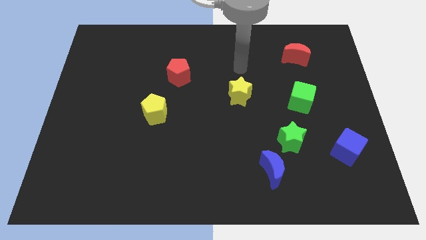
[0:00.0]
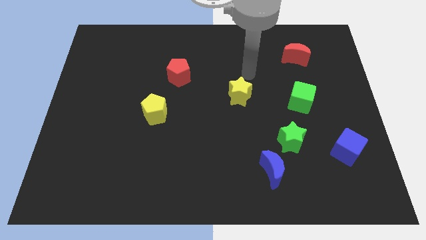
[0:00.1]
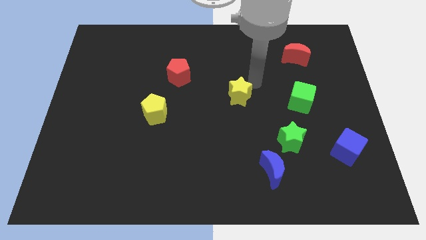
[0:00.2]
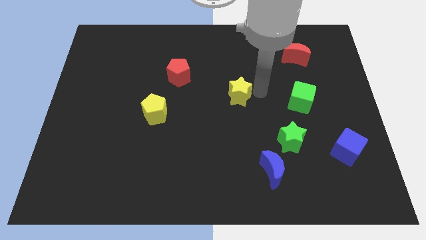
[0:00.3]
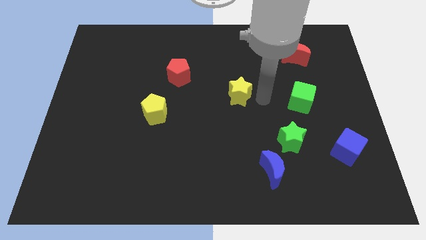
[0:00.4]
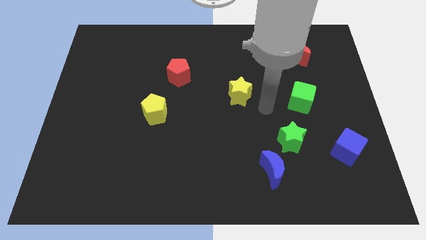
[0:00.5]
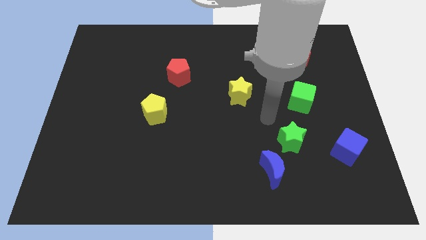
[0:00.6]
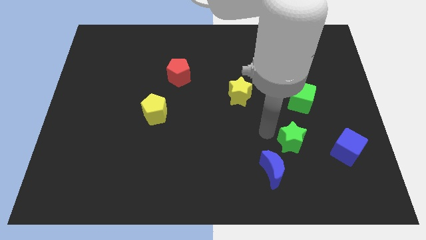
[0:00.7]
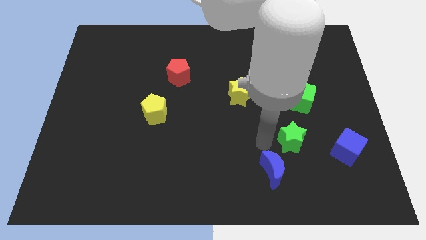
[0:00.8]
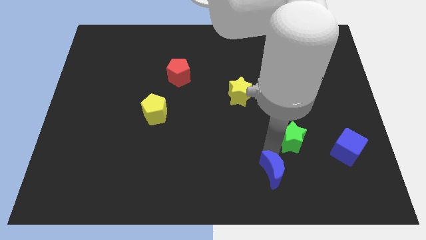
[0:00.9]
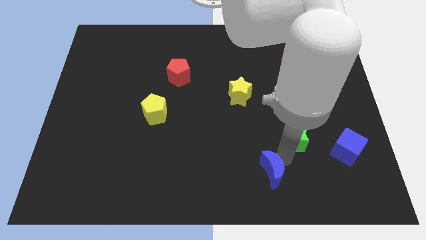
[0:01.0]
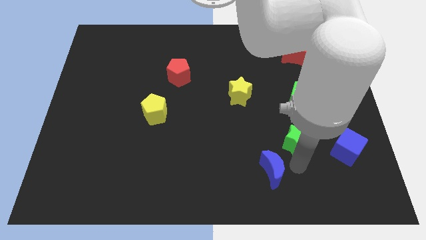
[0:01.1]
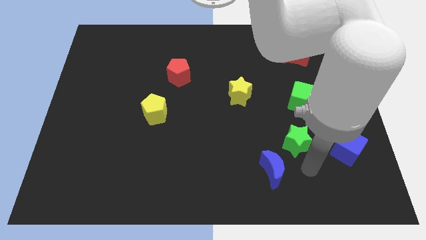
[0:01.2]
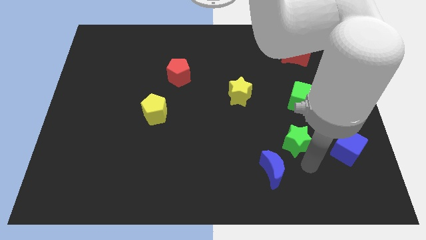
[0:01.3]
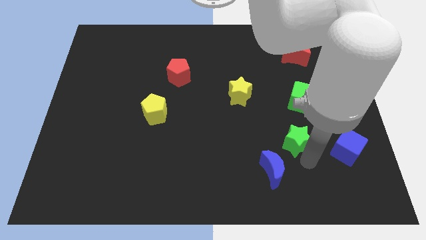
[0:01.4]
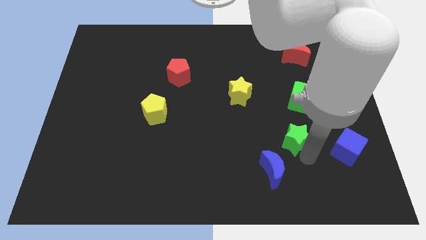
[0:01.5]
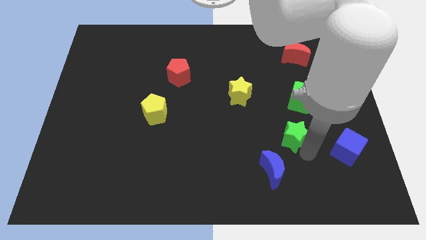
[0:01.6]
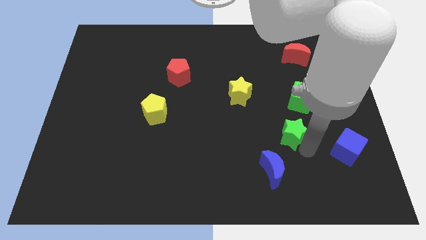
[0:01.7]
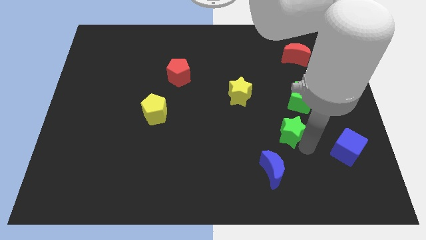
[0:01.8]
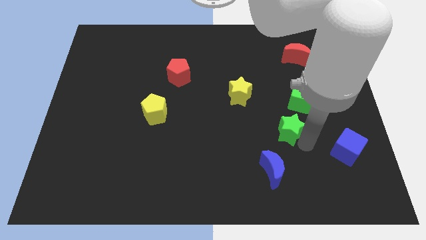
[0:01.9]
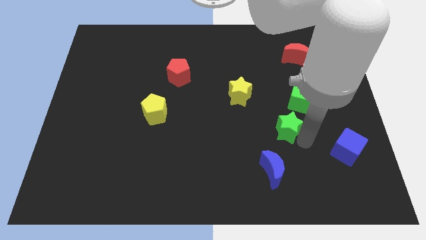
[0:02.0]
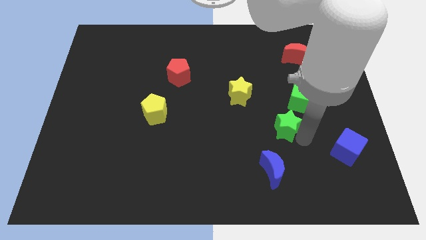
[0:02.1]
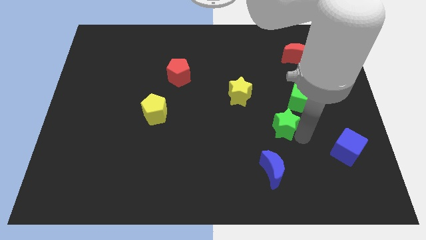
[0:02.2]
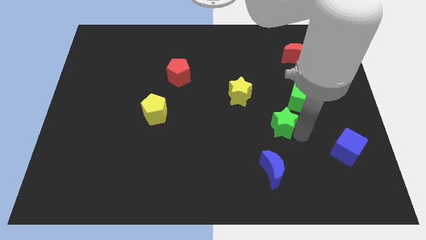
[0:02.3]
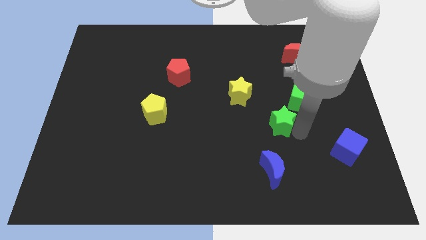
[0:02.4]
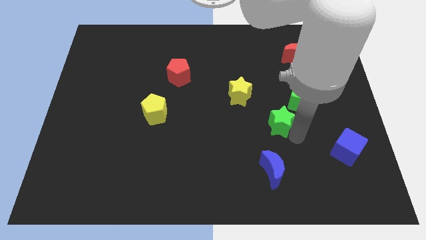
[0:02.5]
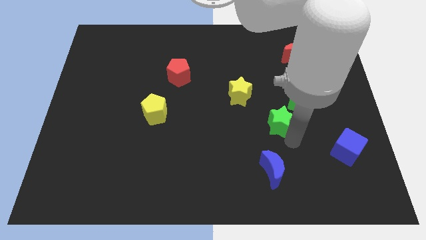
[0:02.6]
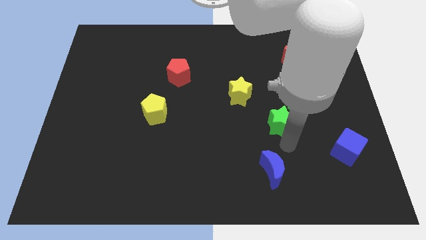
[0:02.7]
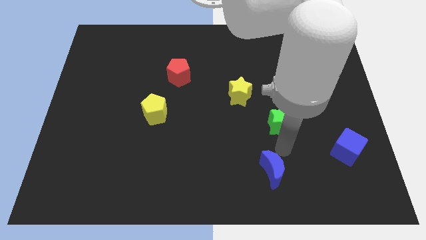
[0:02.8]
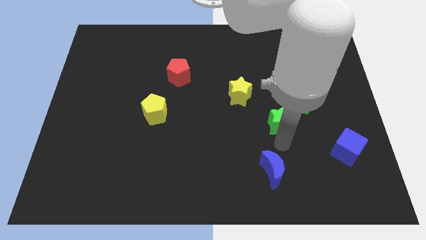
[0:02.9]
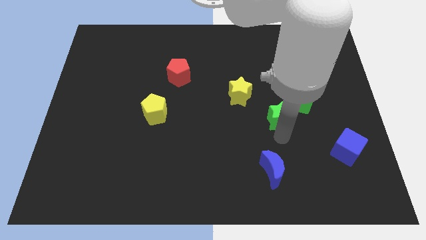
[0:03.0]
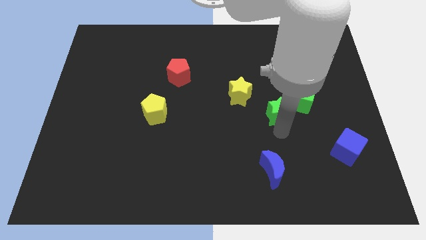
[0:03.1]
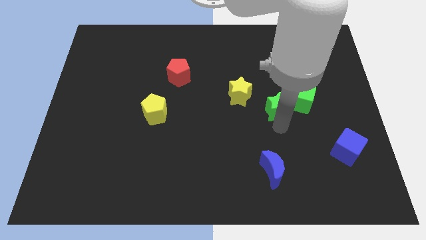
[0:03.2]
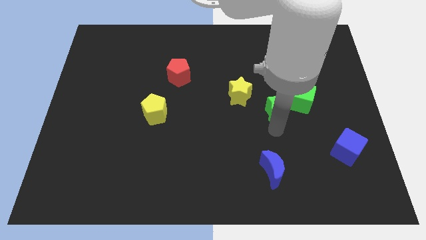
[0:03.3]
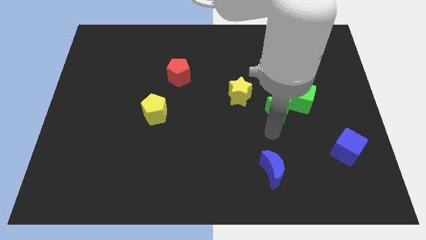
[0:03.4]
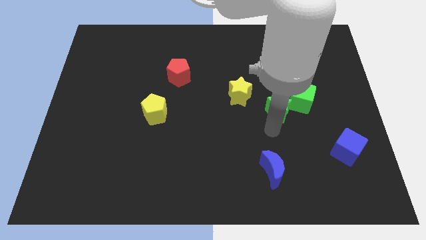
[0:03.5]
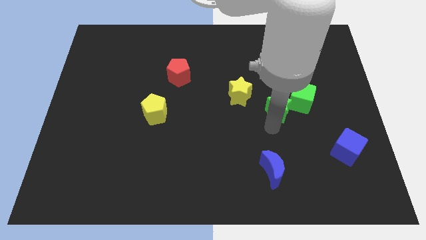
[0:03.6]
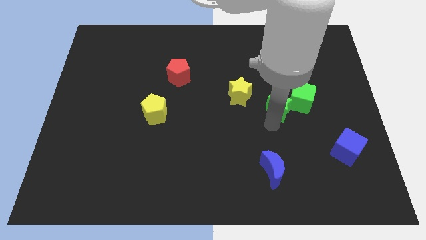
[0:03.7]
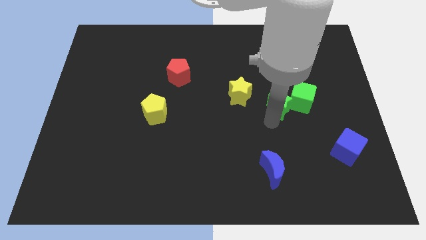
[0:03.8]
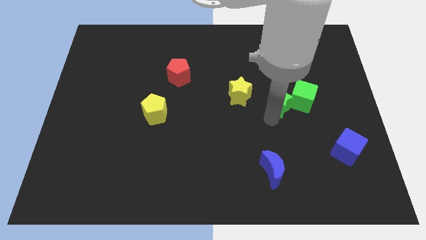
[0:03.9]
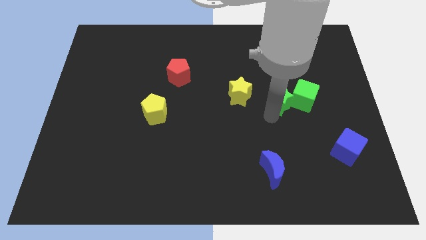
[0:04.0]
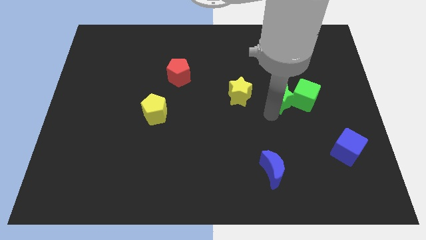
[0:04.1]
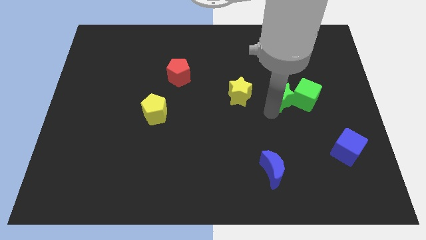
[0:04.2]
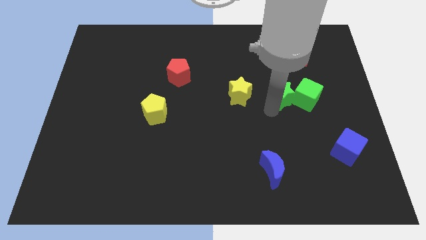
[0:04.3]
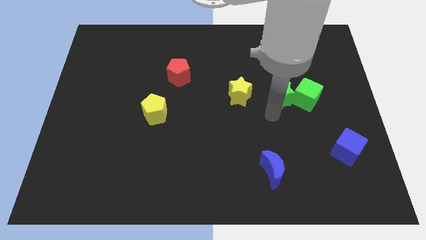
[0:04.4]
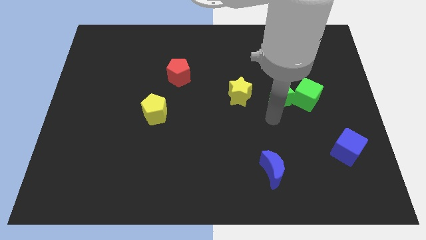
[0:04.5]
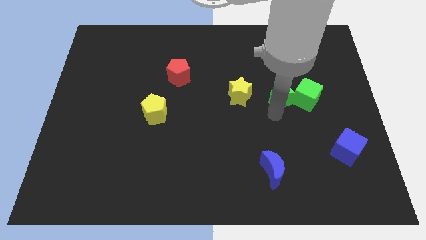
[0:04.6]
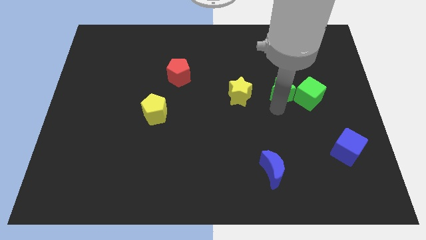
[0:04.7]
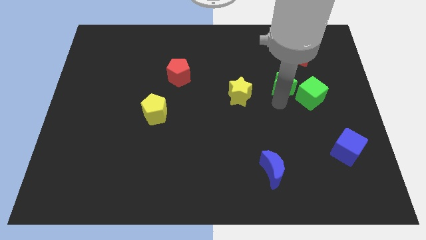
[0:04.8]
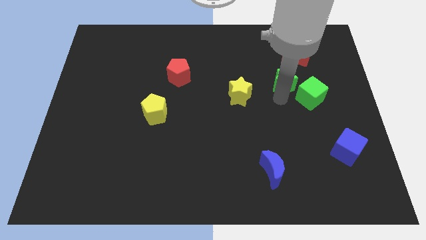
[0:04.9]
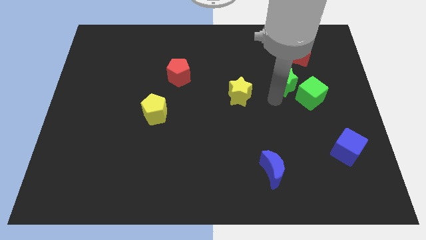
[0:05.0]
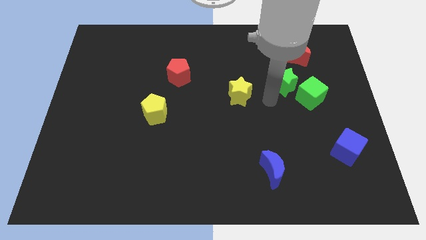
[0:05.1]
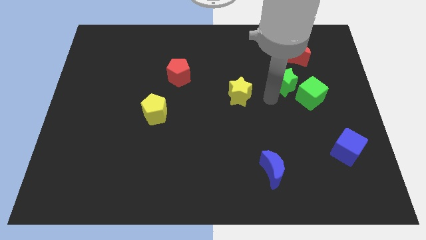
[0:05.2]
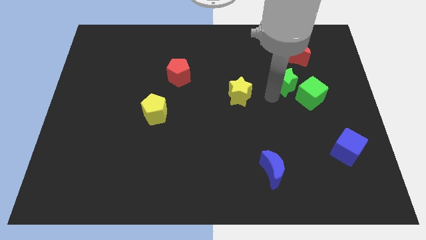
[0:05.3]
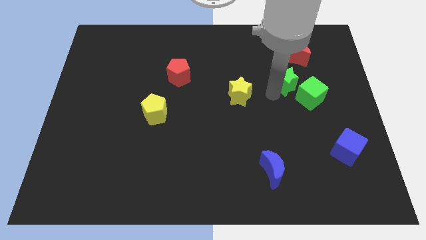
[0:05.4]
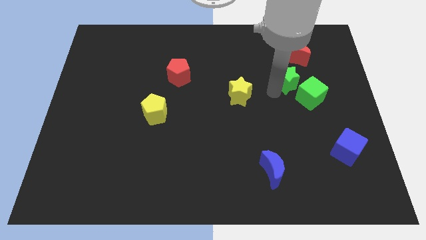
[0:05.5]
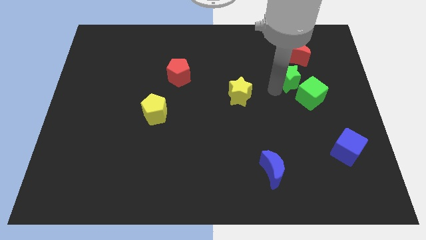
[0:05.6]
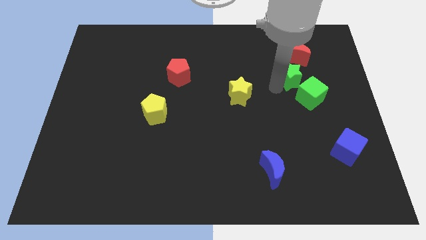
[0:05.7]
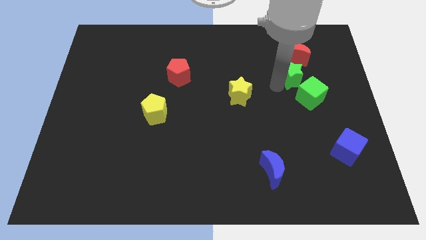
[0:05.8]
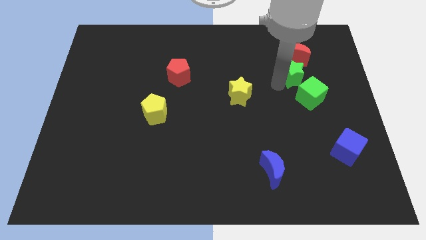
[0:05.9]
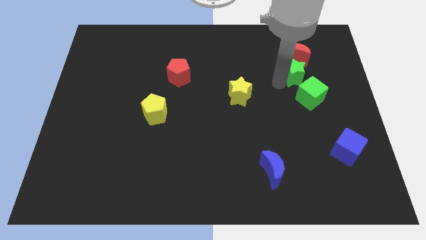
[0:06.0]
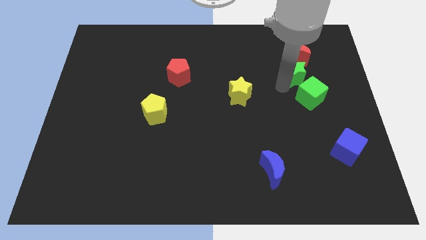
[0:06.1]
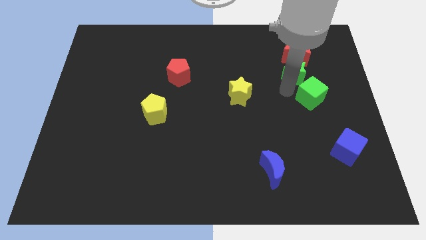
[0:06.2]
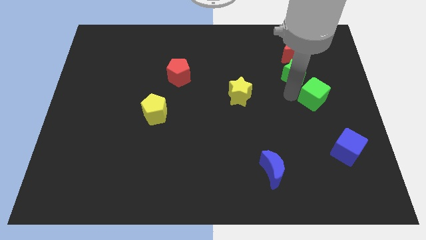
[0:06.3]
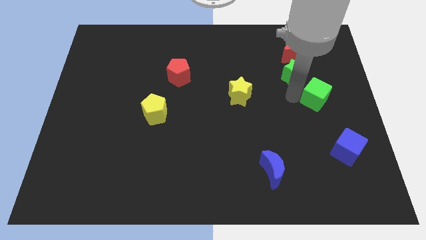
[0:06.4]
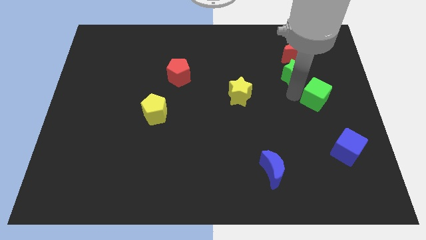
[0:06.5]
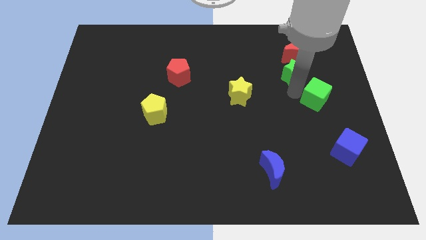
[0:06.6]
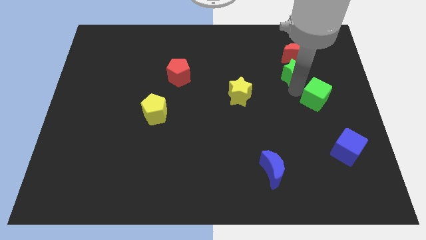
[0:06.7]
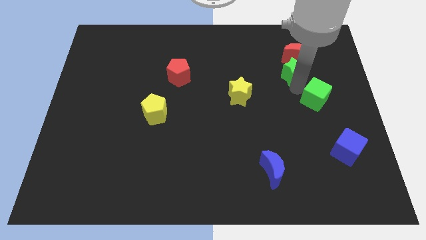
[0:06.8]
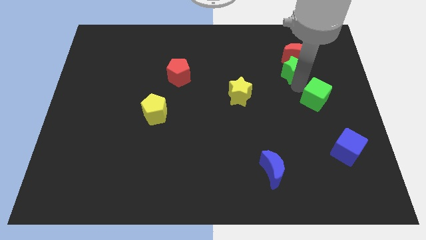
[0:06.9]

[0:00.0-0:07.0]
push the green star to the red moon
